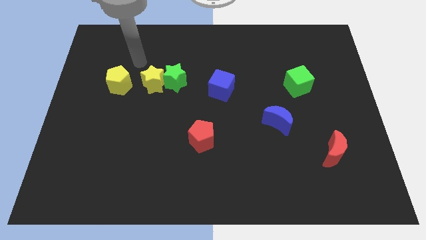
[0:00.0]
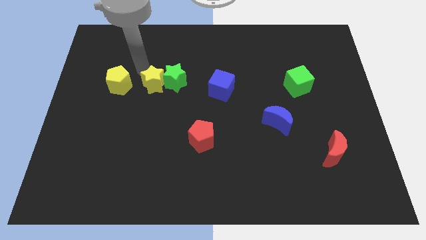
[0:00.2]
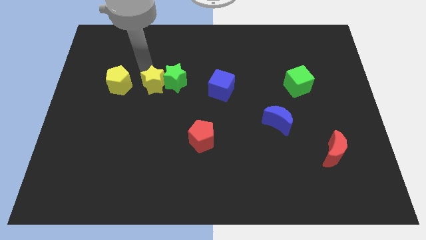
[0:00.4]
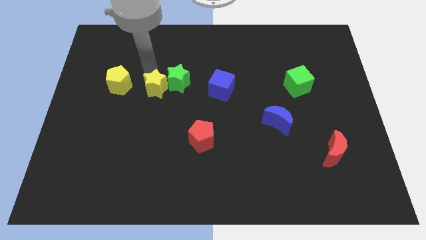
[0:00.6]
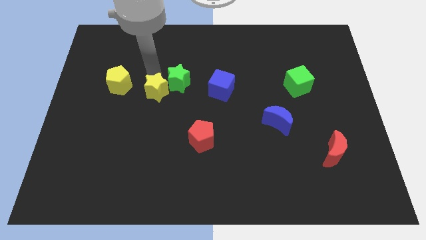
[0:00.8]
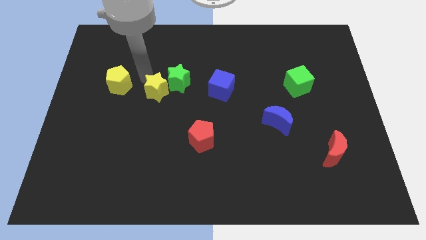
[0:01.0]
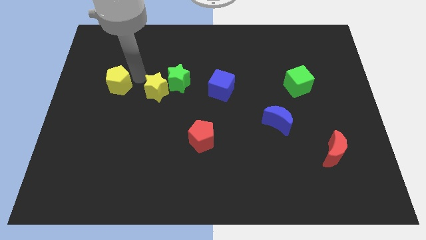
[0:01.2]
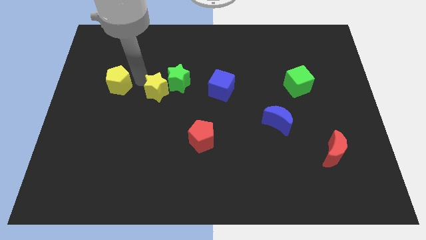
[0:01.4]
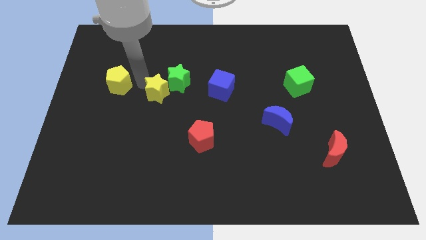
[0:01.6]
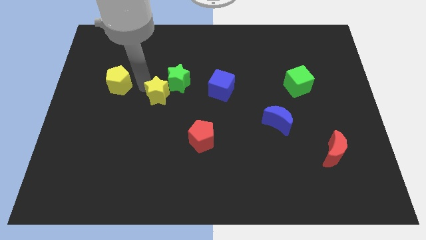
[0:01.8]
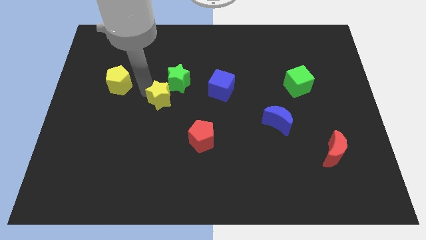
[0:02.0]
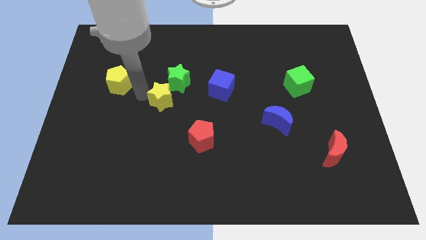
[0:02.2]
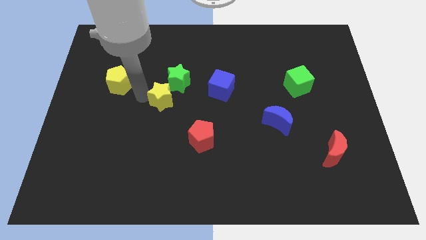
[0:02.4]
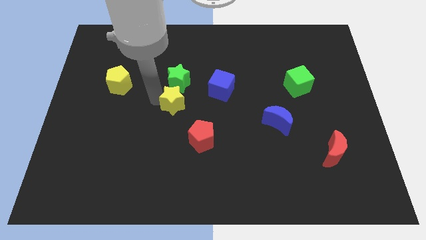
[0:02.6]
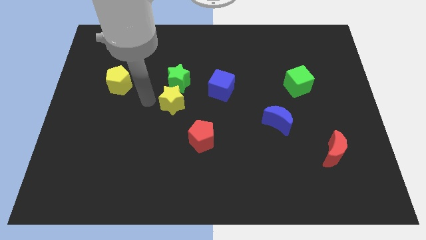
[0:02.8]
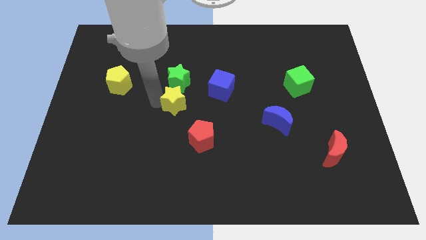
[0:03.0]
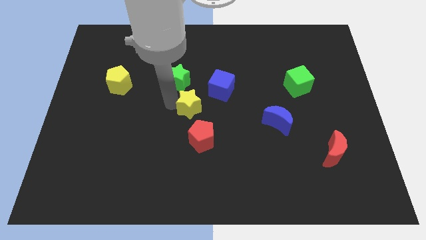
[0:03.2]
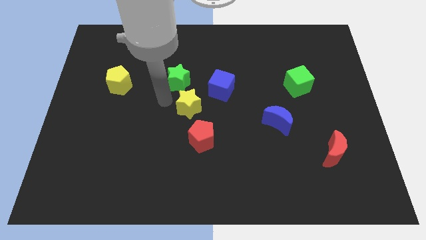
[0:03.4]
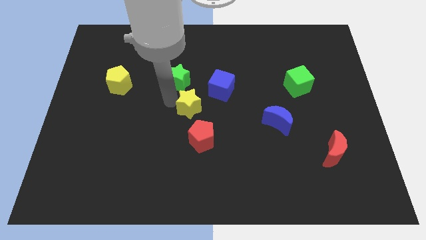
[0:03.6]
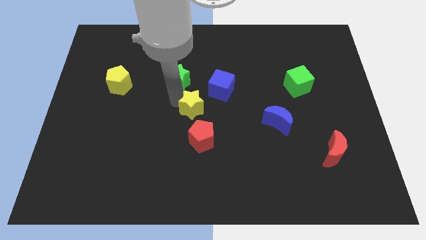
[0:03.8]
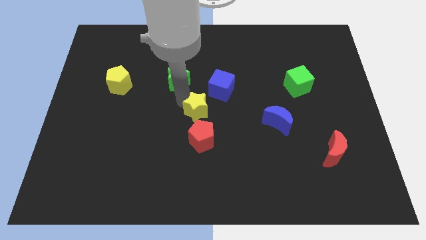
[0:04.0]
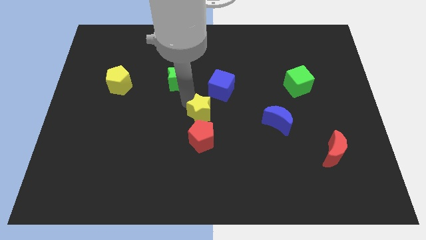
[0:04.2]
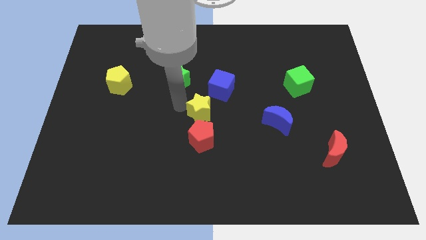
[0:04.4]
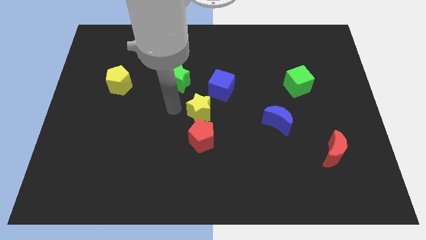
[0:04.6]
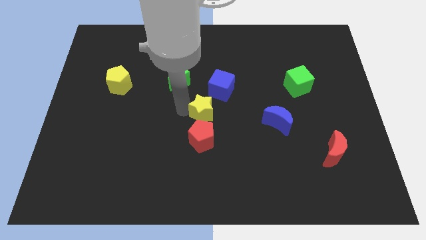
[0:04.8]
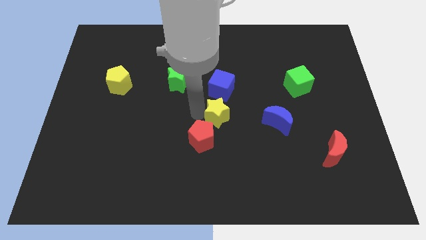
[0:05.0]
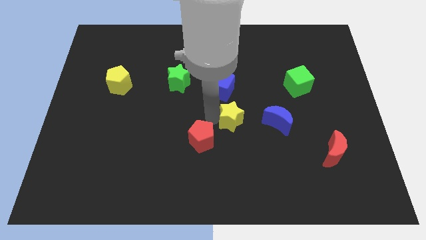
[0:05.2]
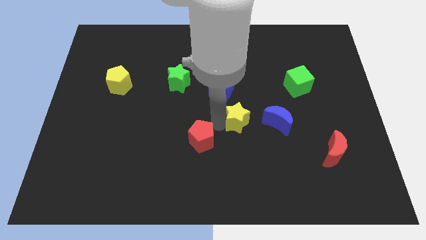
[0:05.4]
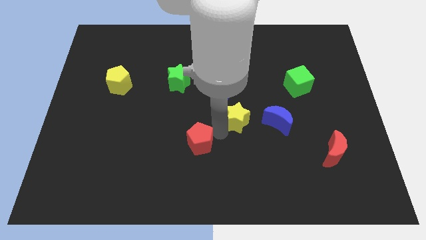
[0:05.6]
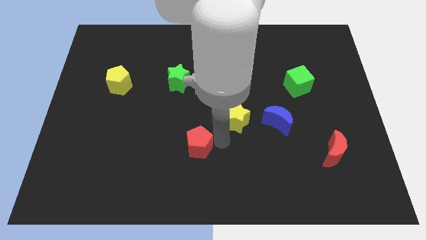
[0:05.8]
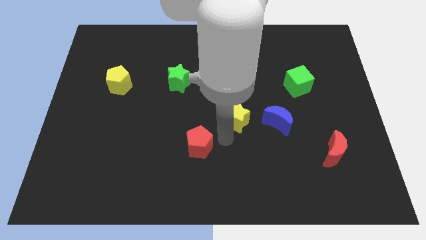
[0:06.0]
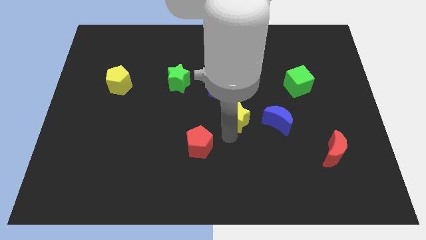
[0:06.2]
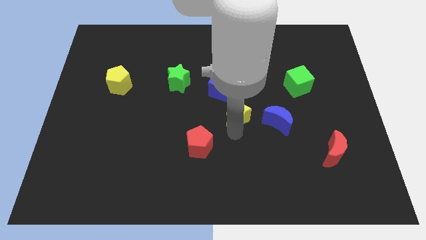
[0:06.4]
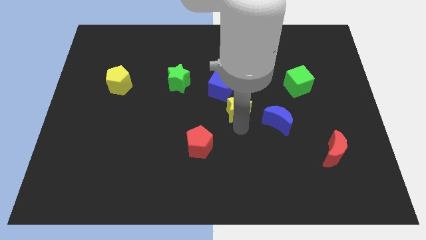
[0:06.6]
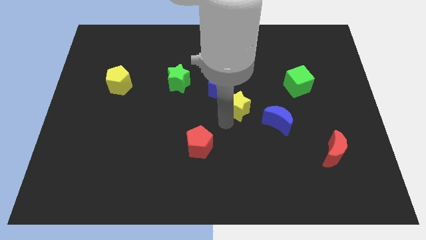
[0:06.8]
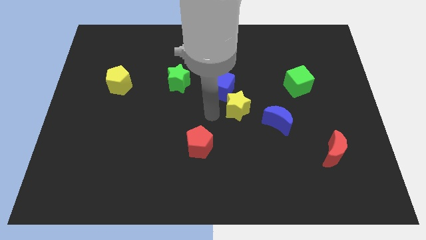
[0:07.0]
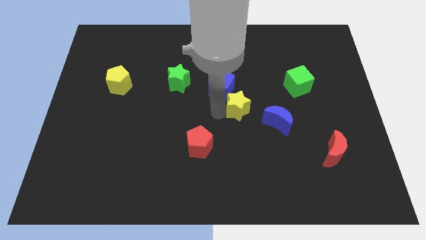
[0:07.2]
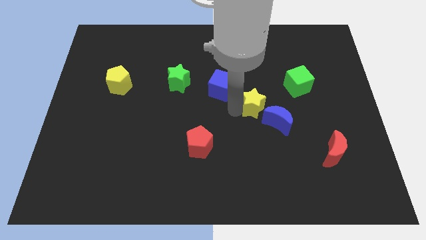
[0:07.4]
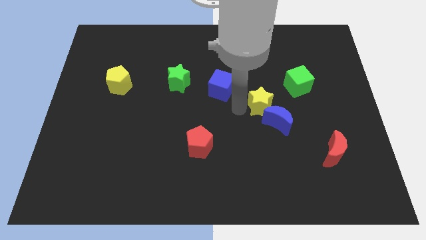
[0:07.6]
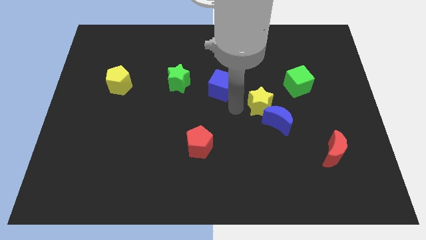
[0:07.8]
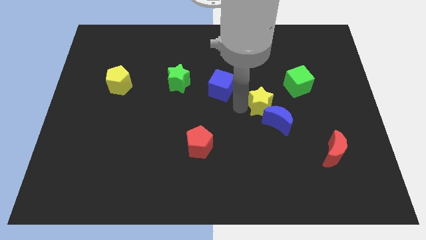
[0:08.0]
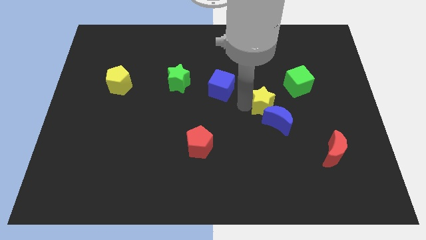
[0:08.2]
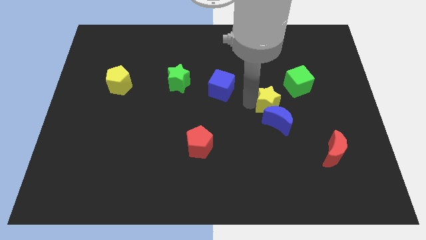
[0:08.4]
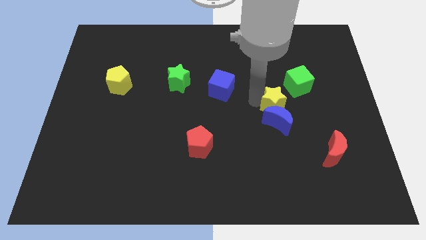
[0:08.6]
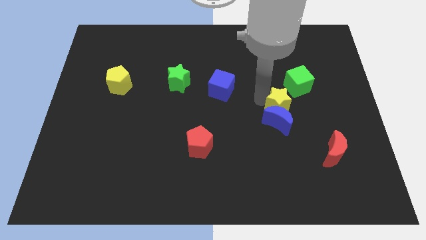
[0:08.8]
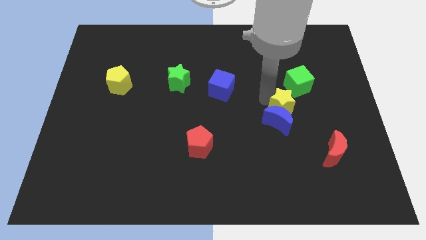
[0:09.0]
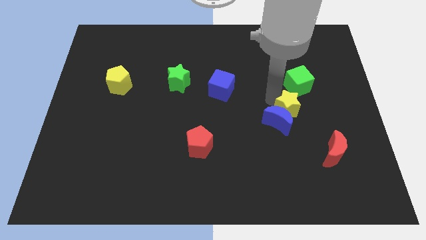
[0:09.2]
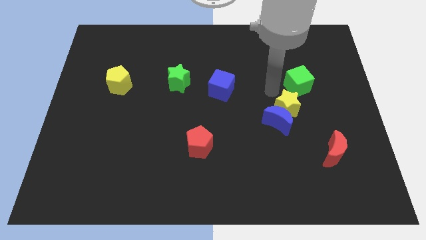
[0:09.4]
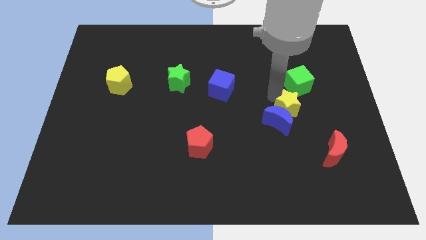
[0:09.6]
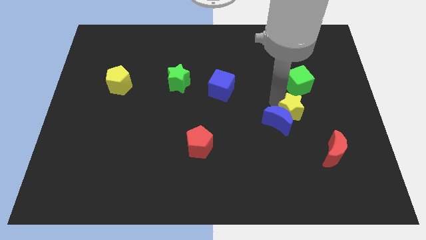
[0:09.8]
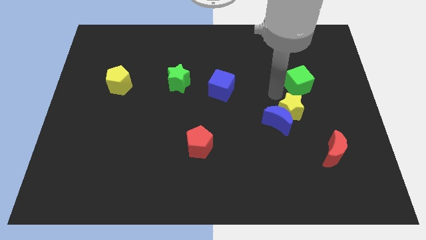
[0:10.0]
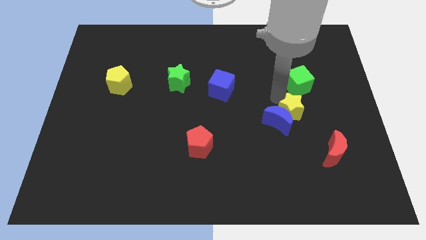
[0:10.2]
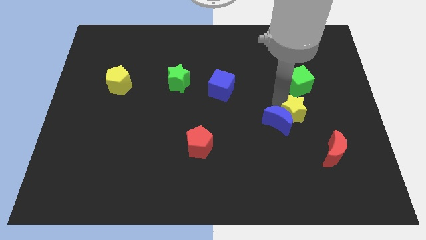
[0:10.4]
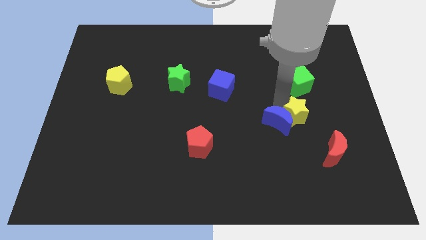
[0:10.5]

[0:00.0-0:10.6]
push the yellow star to the top left of the red moon

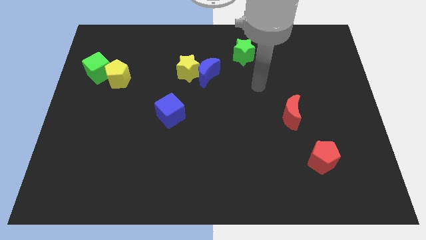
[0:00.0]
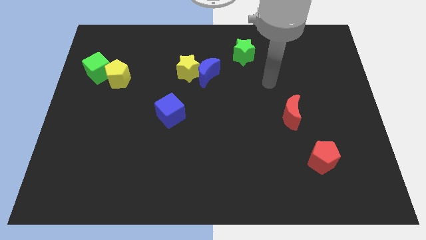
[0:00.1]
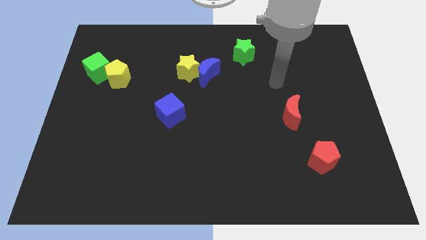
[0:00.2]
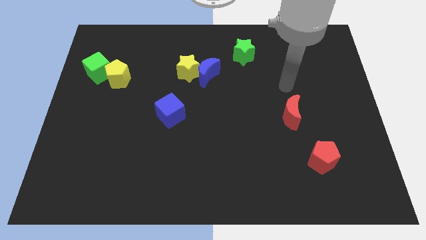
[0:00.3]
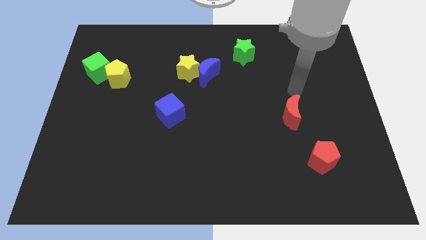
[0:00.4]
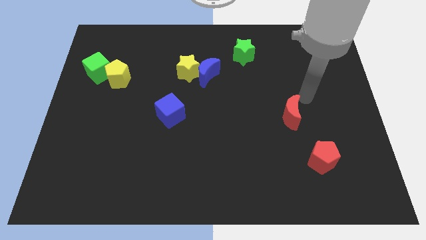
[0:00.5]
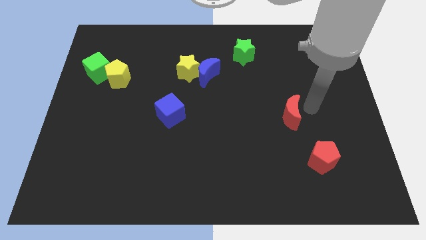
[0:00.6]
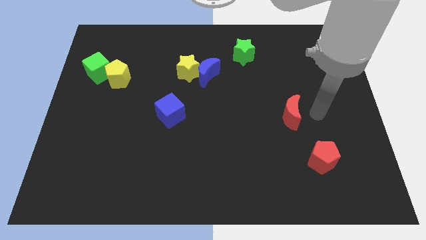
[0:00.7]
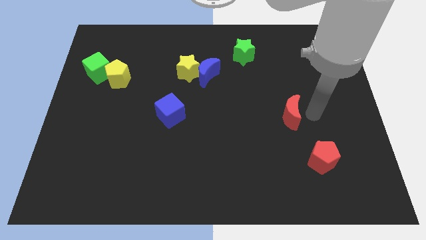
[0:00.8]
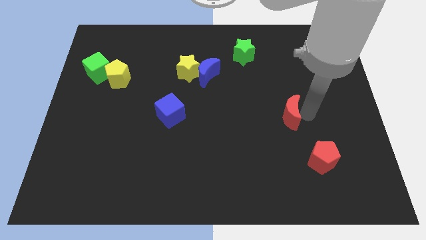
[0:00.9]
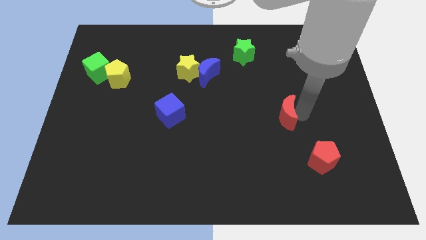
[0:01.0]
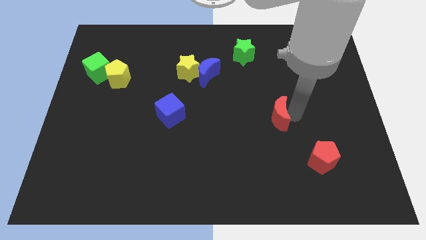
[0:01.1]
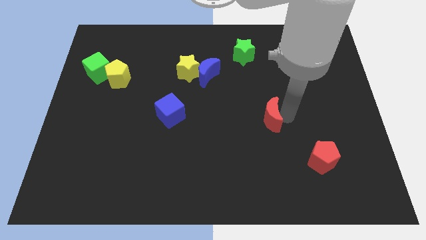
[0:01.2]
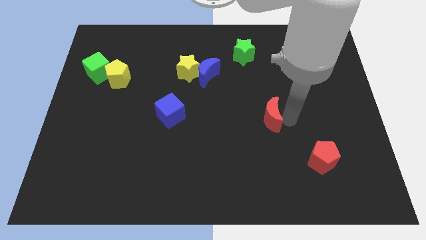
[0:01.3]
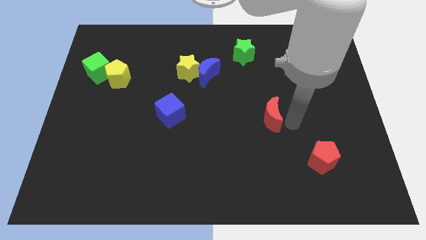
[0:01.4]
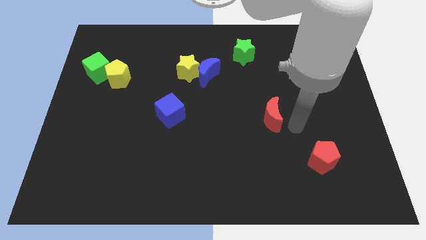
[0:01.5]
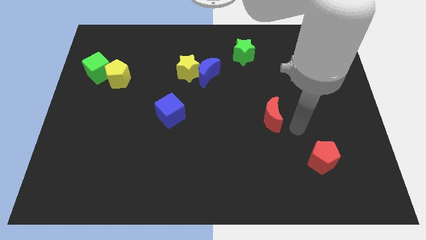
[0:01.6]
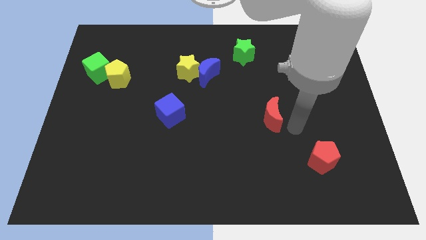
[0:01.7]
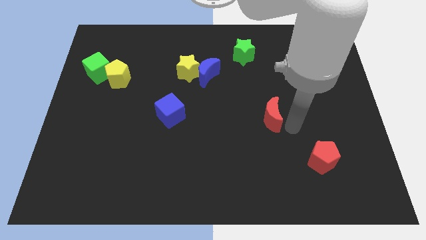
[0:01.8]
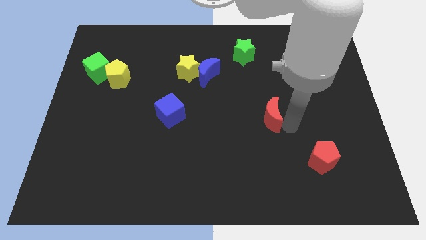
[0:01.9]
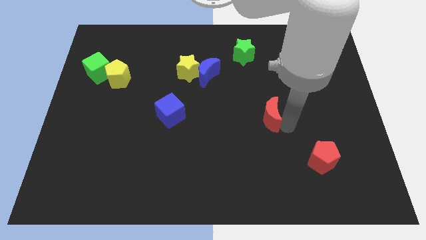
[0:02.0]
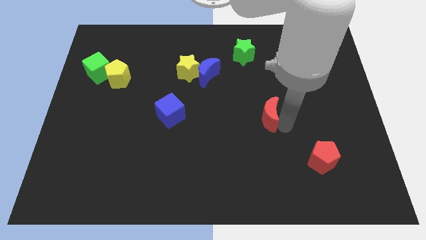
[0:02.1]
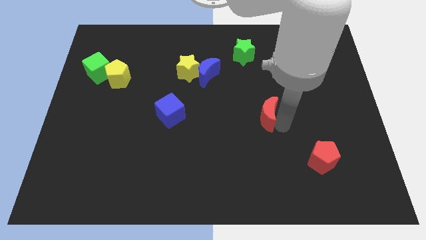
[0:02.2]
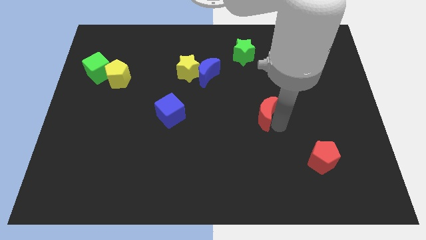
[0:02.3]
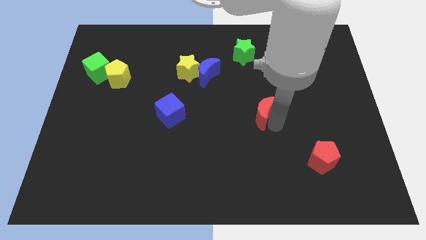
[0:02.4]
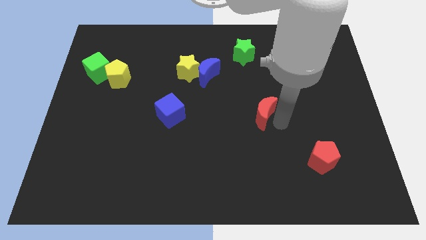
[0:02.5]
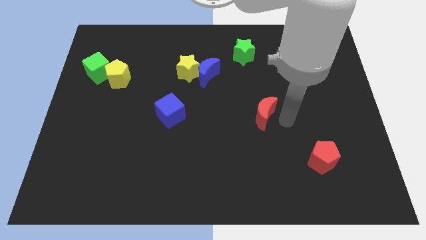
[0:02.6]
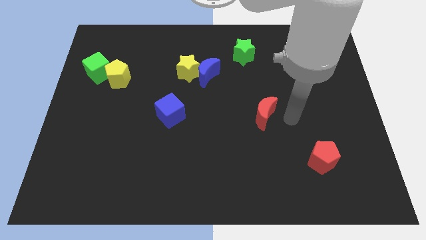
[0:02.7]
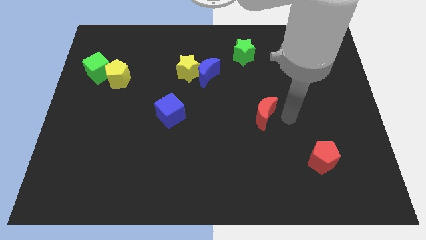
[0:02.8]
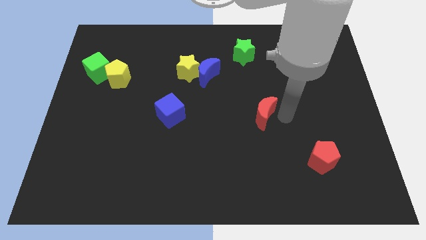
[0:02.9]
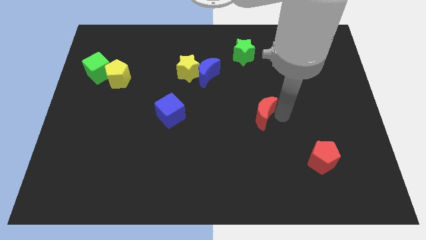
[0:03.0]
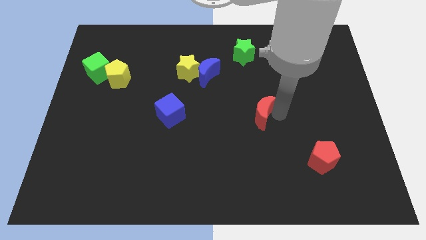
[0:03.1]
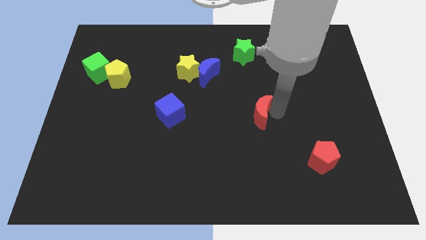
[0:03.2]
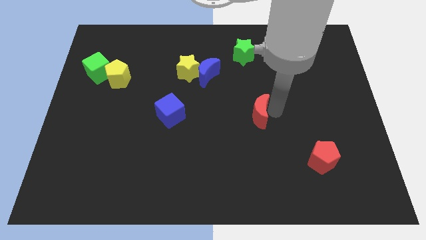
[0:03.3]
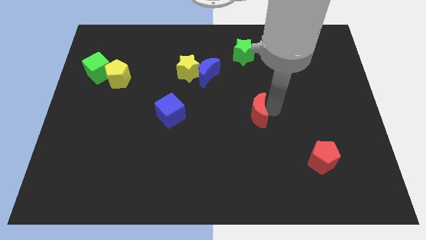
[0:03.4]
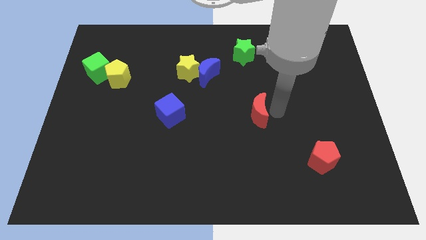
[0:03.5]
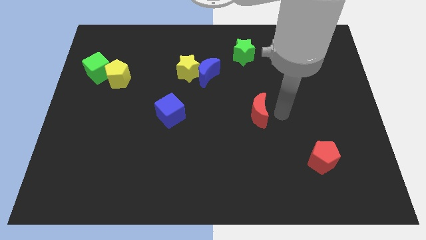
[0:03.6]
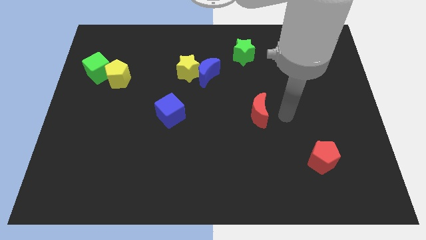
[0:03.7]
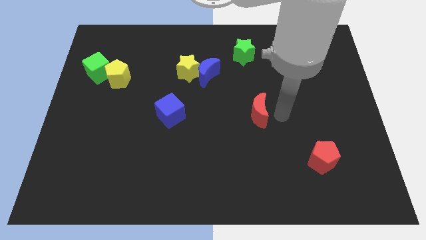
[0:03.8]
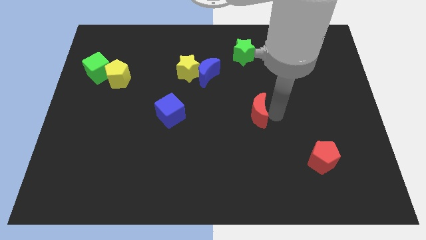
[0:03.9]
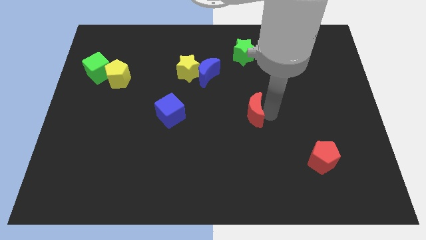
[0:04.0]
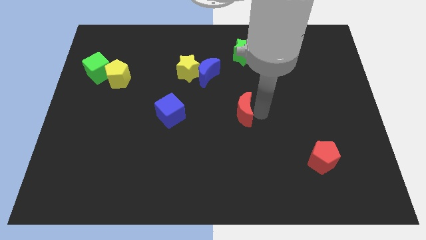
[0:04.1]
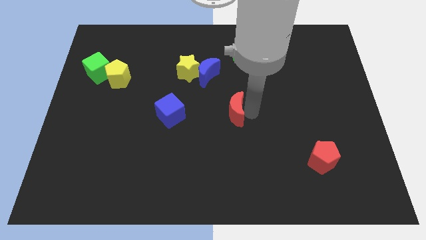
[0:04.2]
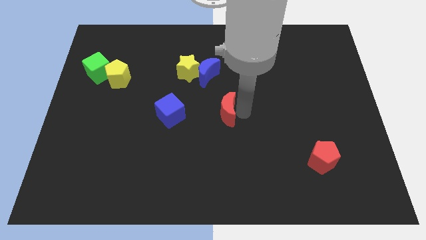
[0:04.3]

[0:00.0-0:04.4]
push the red moon to the bottom side of the blue moon
